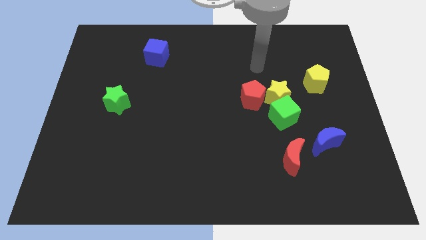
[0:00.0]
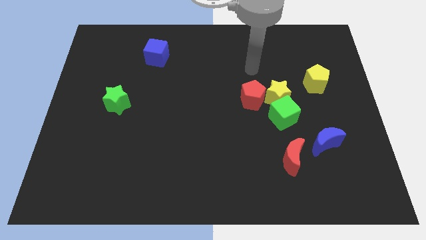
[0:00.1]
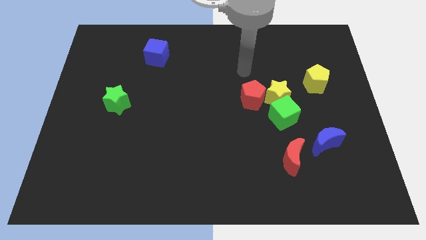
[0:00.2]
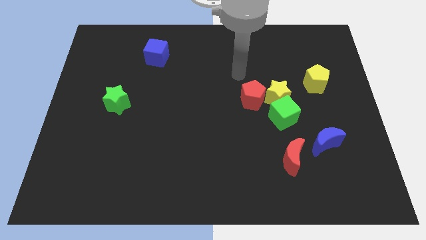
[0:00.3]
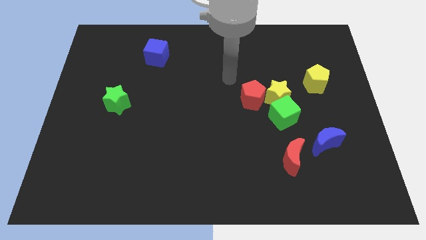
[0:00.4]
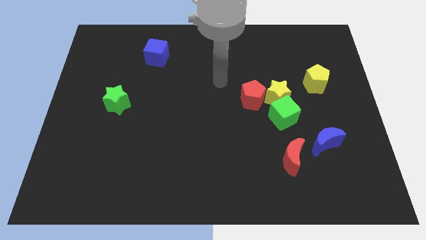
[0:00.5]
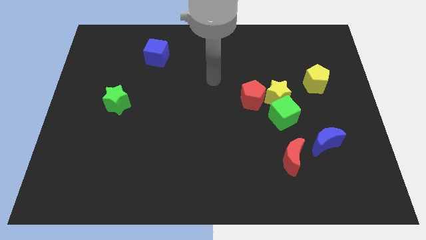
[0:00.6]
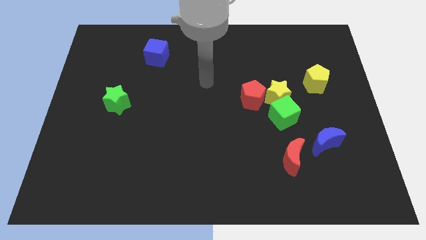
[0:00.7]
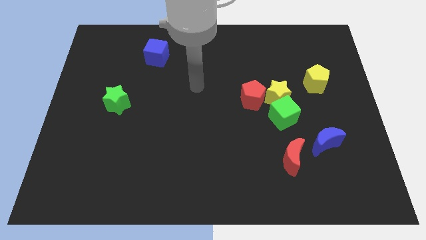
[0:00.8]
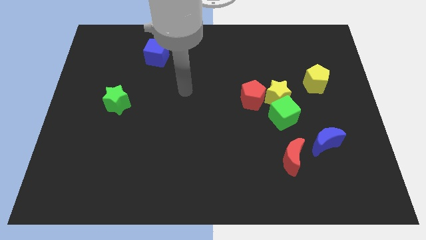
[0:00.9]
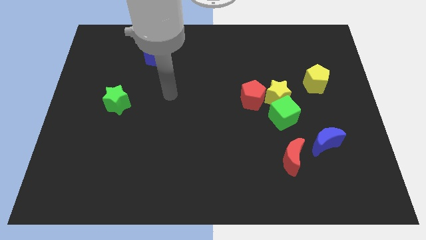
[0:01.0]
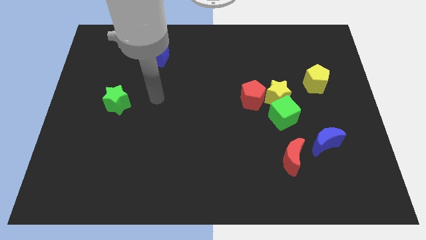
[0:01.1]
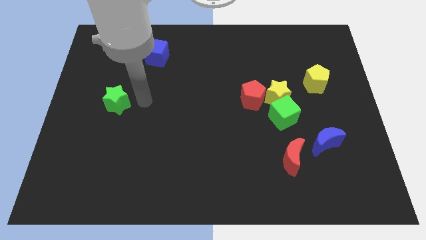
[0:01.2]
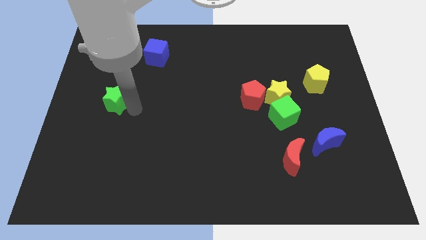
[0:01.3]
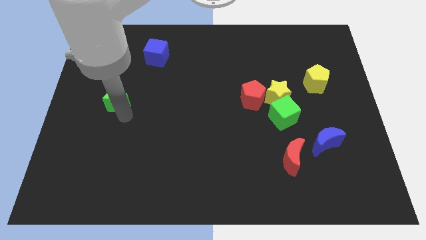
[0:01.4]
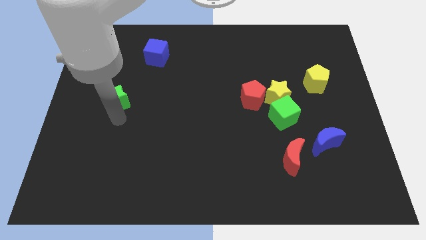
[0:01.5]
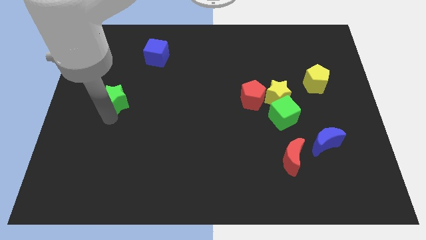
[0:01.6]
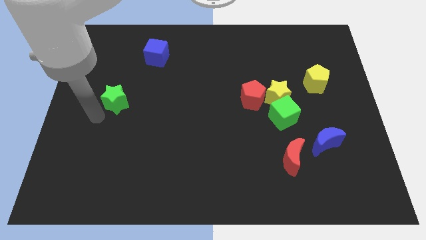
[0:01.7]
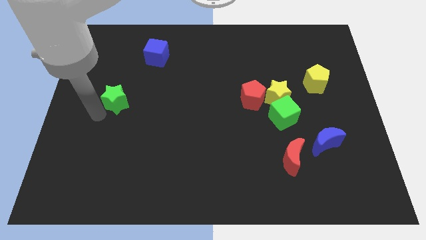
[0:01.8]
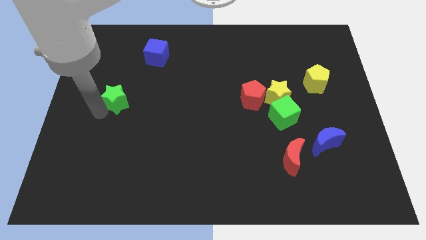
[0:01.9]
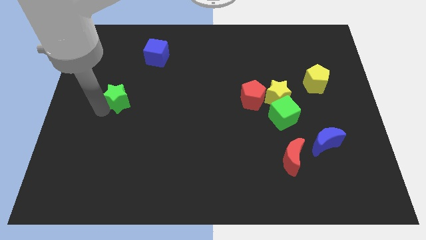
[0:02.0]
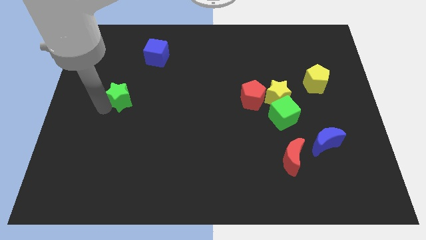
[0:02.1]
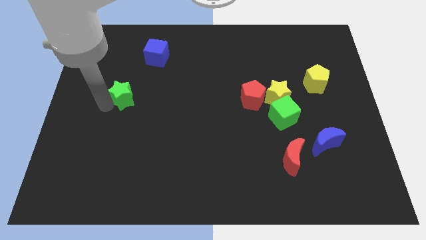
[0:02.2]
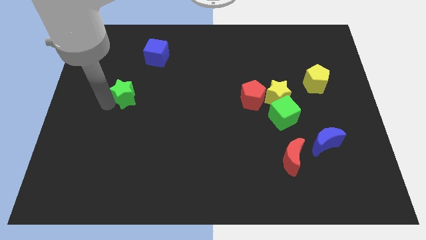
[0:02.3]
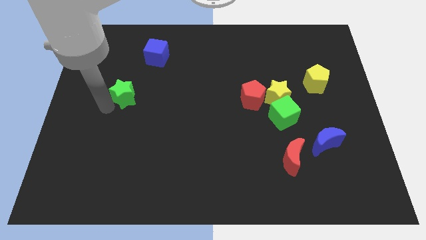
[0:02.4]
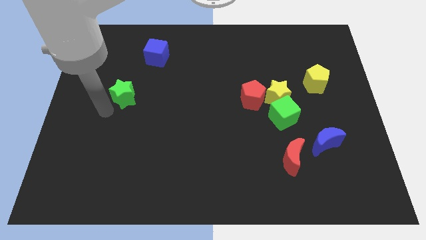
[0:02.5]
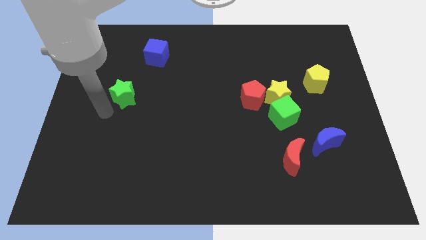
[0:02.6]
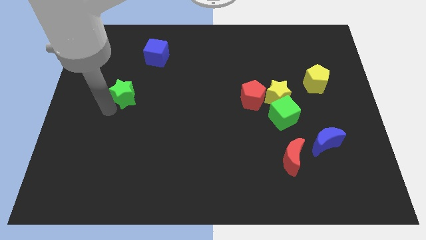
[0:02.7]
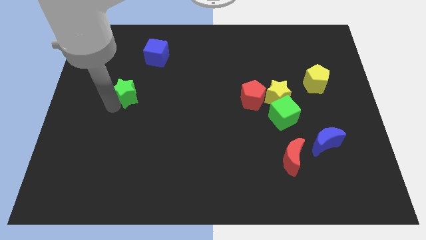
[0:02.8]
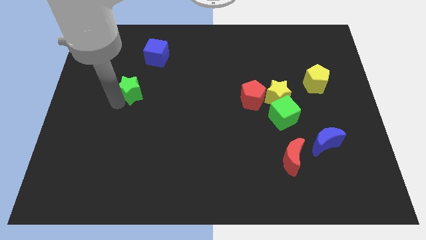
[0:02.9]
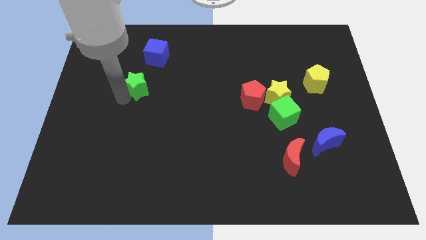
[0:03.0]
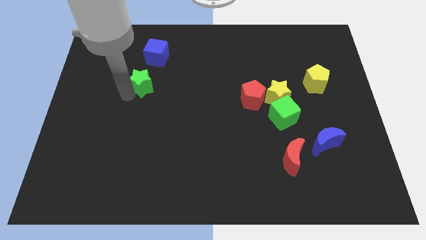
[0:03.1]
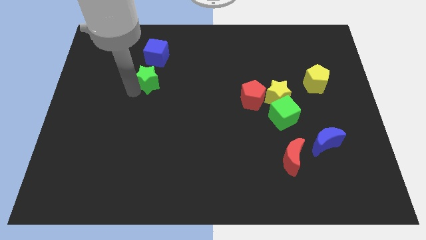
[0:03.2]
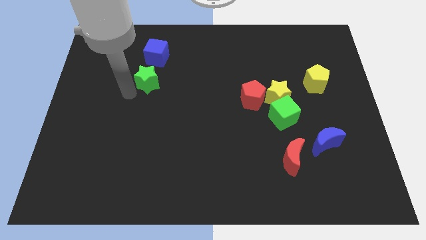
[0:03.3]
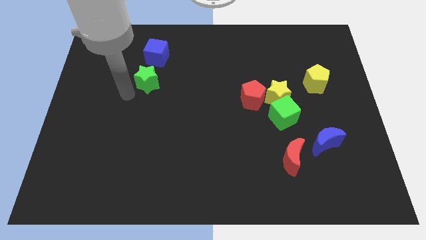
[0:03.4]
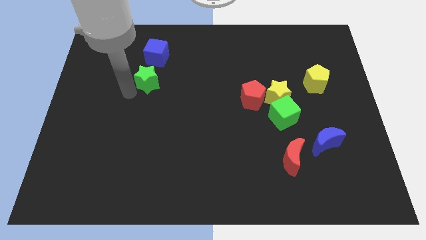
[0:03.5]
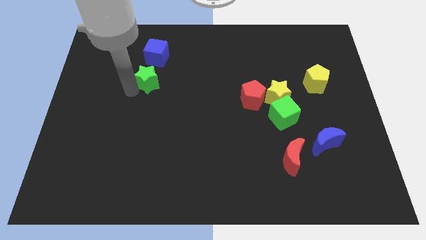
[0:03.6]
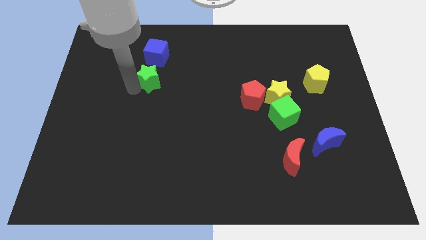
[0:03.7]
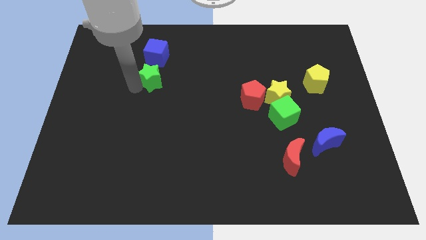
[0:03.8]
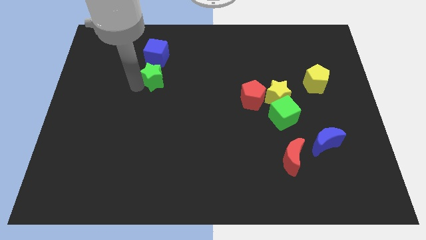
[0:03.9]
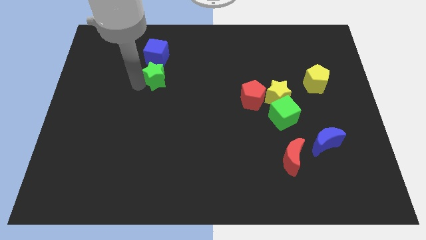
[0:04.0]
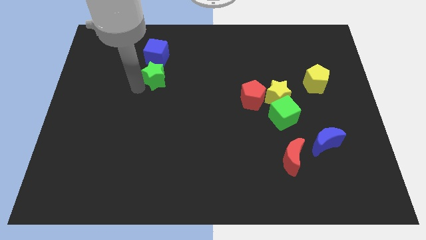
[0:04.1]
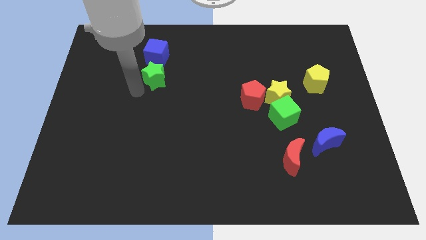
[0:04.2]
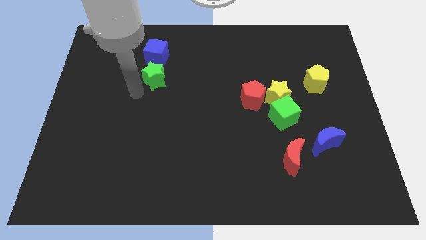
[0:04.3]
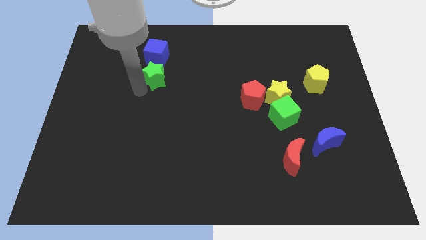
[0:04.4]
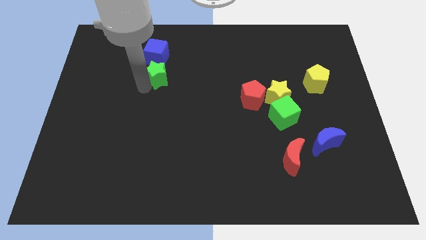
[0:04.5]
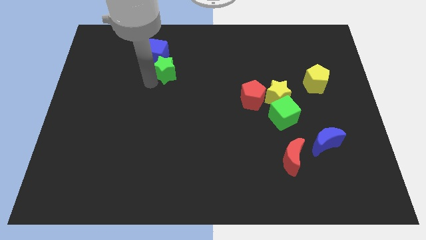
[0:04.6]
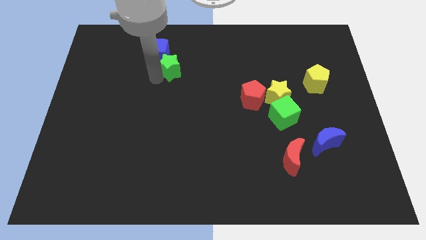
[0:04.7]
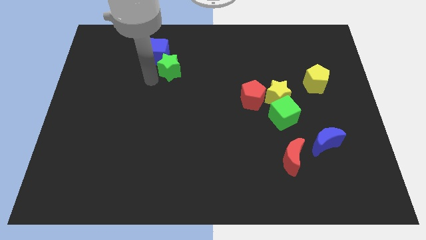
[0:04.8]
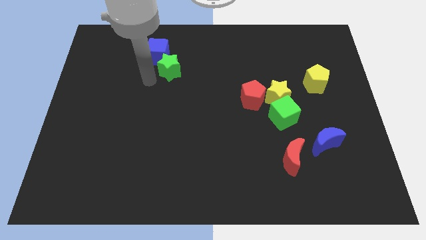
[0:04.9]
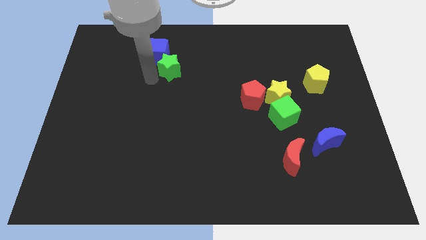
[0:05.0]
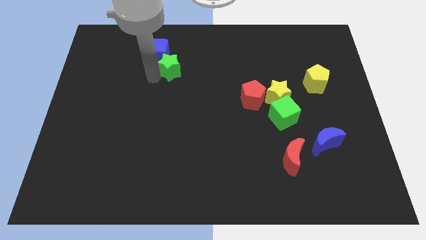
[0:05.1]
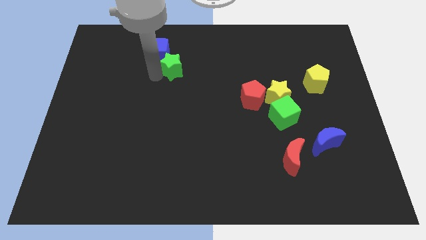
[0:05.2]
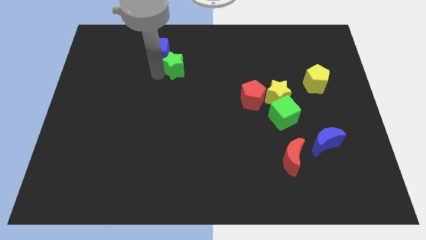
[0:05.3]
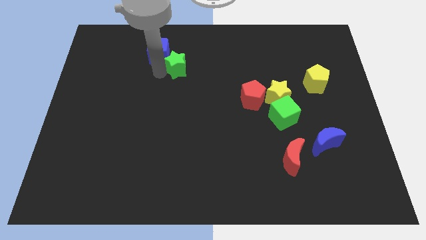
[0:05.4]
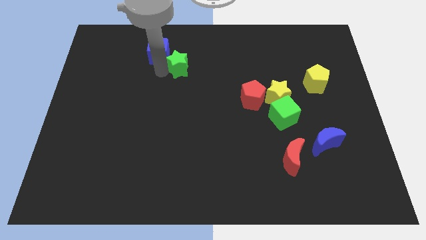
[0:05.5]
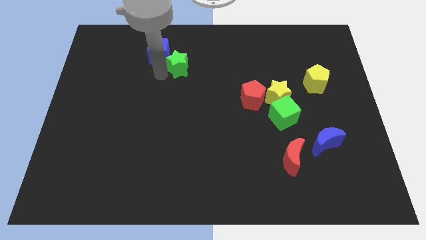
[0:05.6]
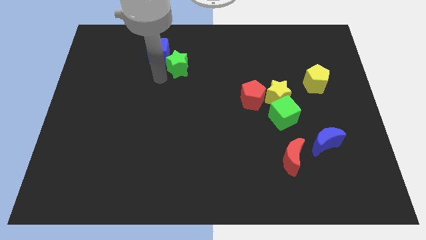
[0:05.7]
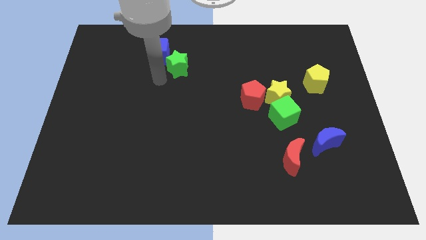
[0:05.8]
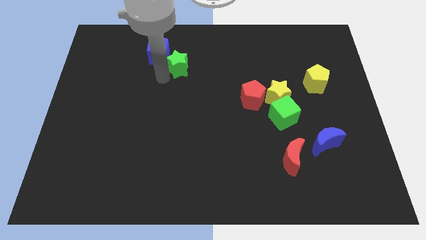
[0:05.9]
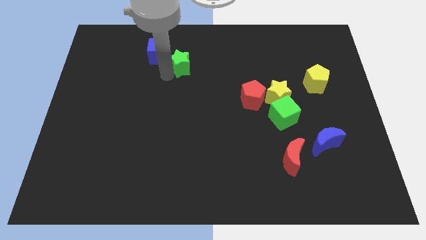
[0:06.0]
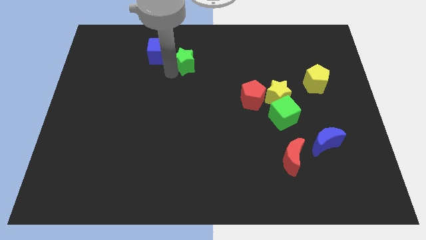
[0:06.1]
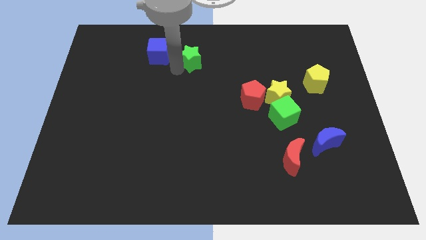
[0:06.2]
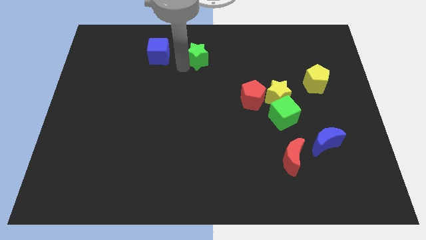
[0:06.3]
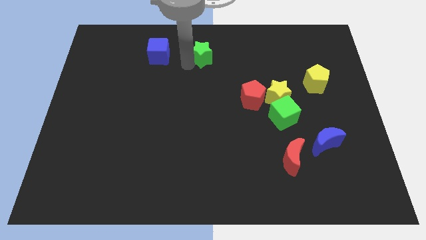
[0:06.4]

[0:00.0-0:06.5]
push the green star to the top
